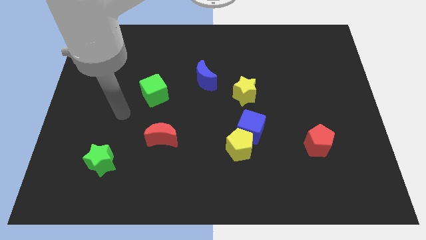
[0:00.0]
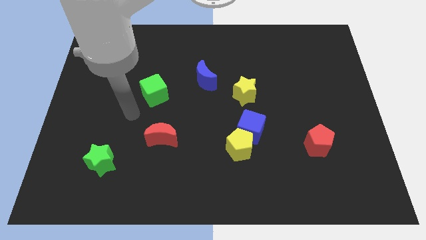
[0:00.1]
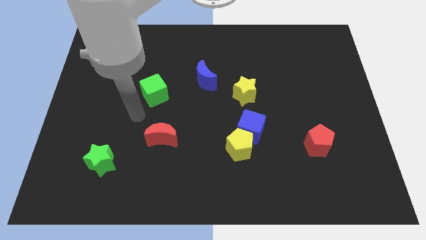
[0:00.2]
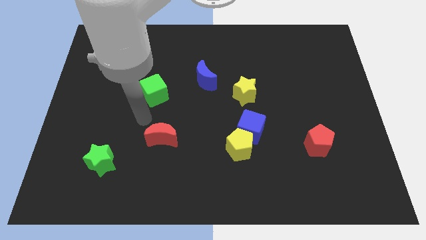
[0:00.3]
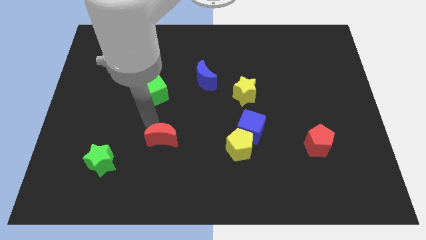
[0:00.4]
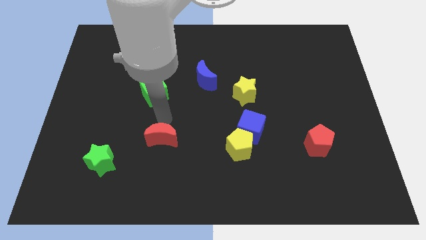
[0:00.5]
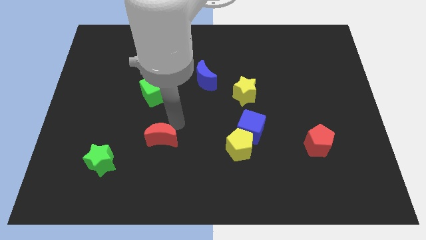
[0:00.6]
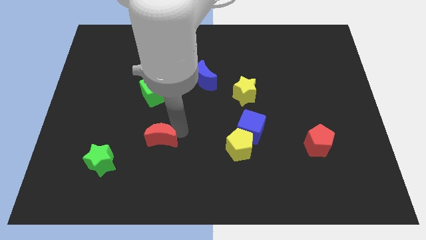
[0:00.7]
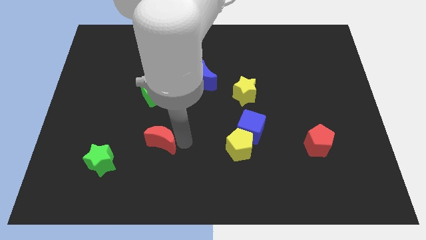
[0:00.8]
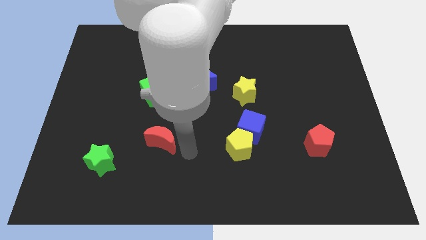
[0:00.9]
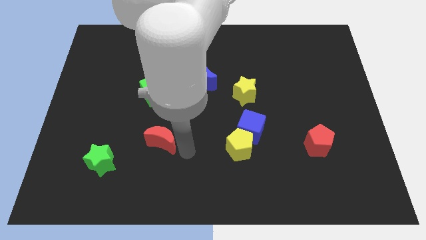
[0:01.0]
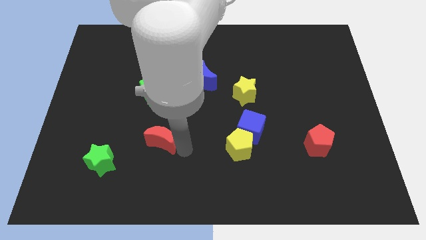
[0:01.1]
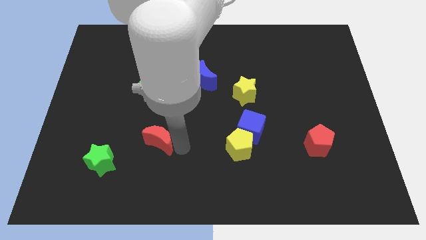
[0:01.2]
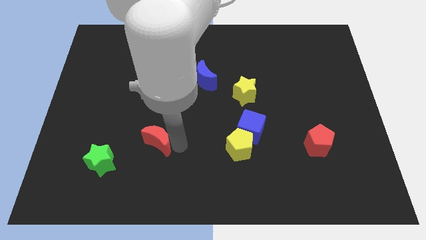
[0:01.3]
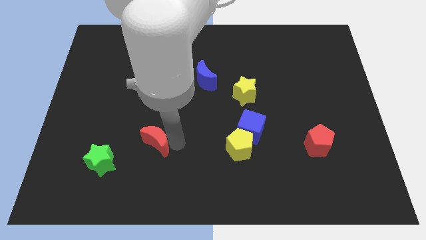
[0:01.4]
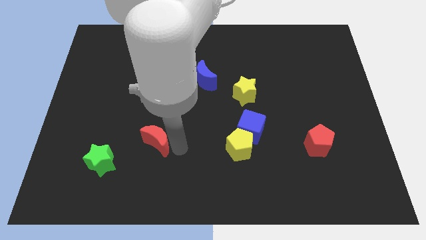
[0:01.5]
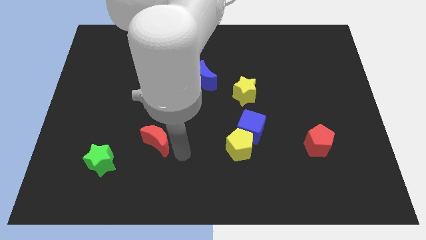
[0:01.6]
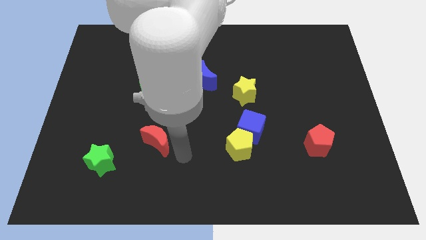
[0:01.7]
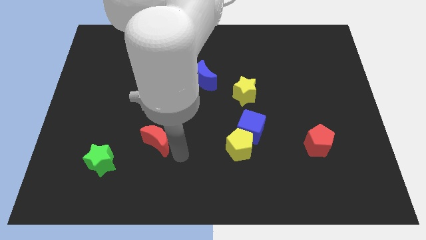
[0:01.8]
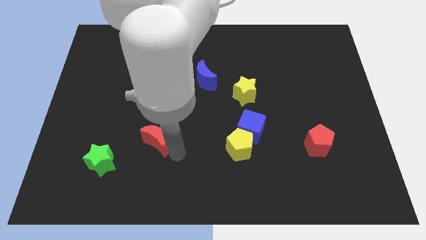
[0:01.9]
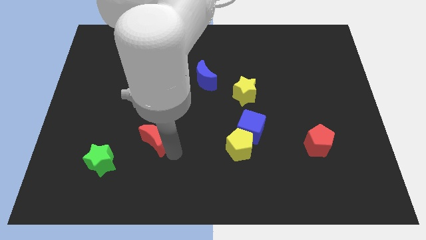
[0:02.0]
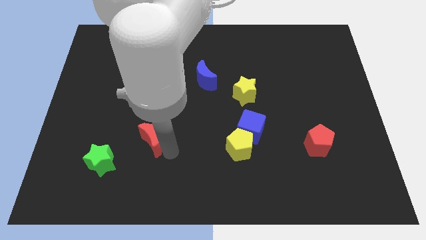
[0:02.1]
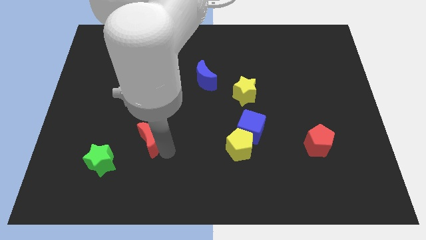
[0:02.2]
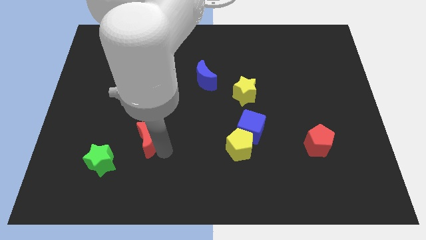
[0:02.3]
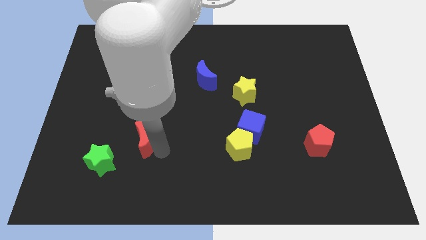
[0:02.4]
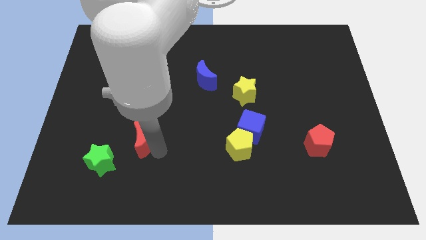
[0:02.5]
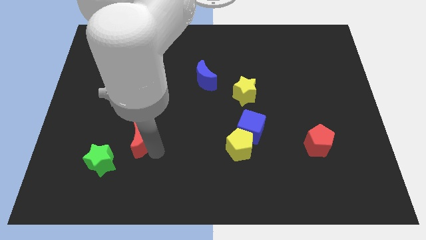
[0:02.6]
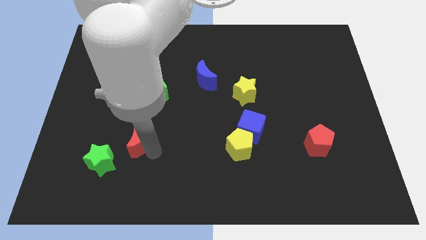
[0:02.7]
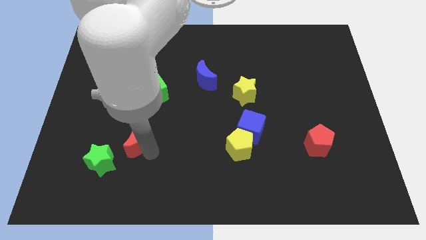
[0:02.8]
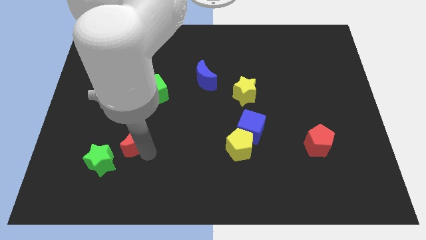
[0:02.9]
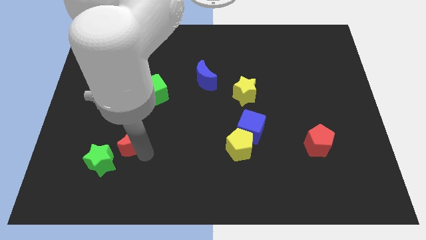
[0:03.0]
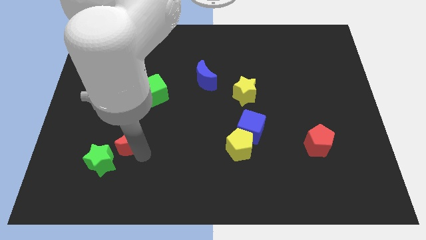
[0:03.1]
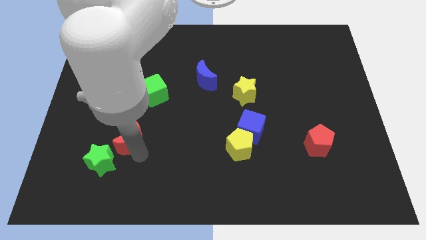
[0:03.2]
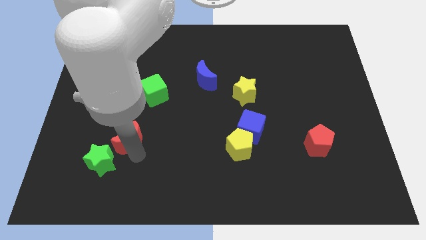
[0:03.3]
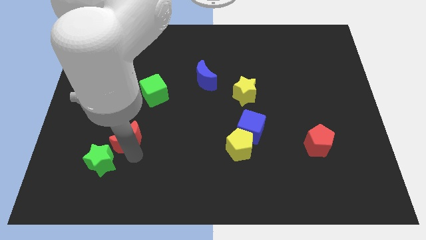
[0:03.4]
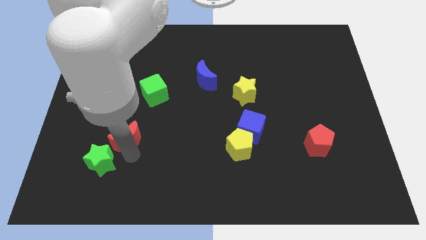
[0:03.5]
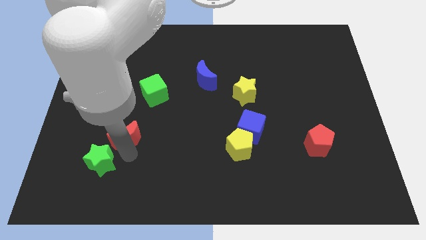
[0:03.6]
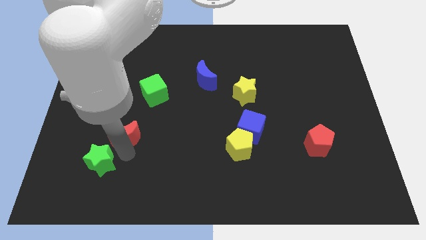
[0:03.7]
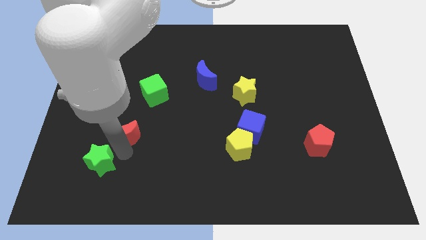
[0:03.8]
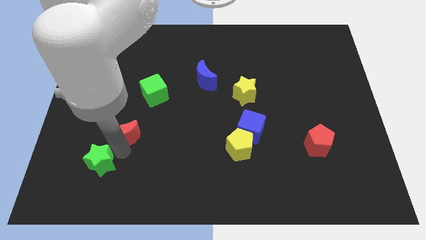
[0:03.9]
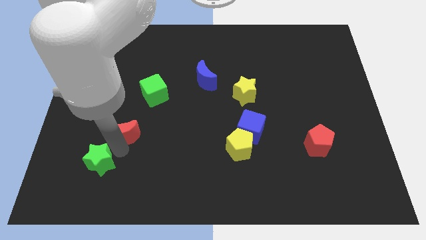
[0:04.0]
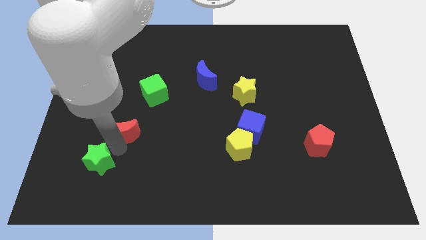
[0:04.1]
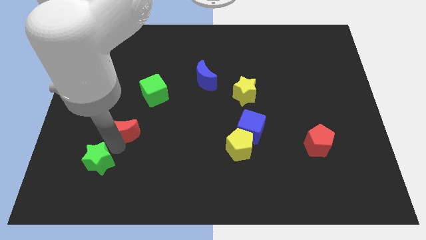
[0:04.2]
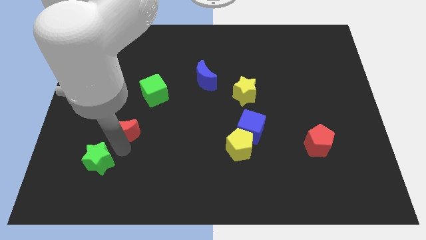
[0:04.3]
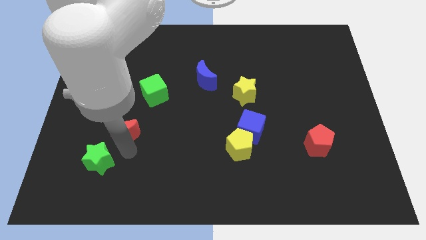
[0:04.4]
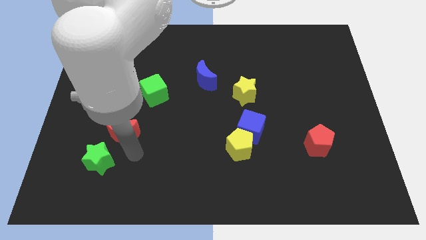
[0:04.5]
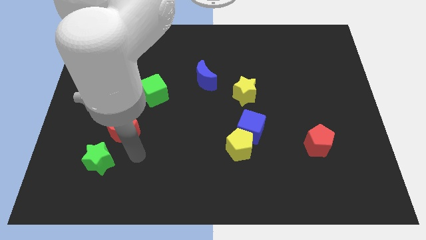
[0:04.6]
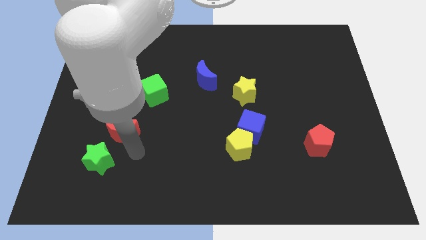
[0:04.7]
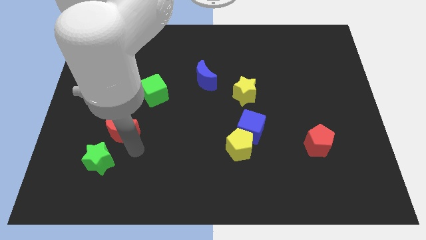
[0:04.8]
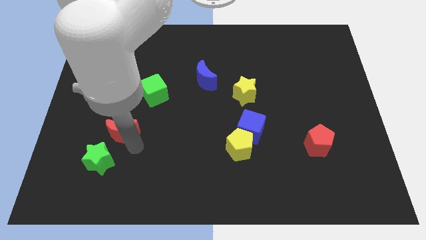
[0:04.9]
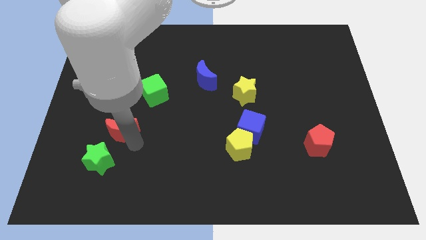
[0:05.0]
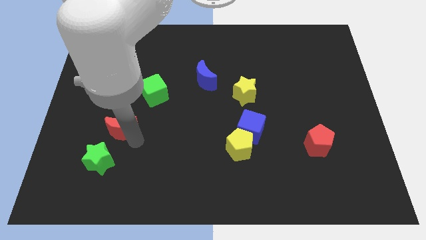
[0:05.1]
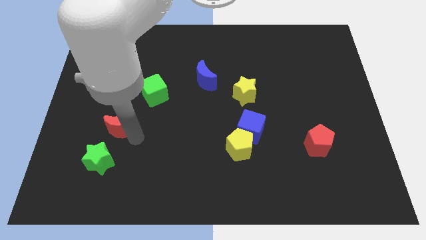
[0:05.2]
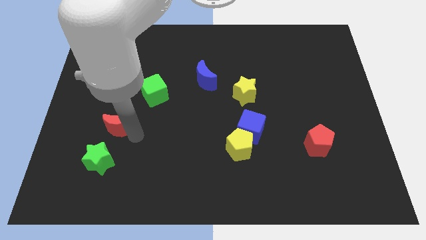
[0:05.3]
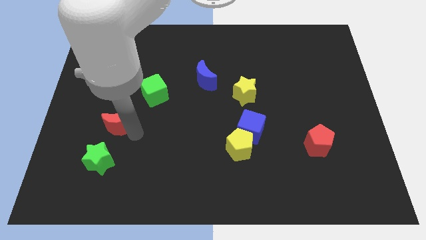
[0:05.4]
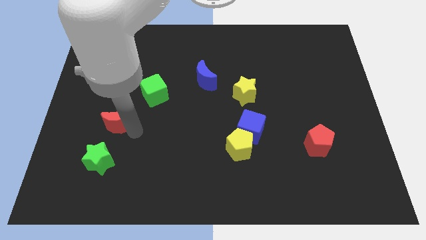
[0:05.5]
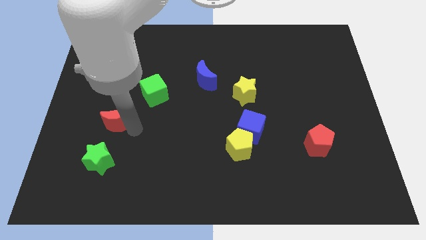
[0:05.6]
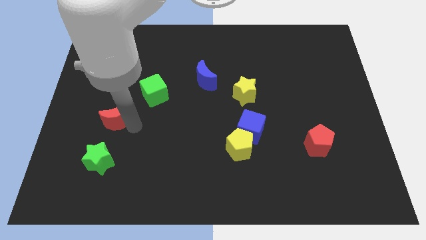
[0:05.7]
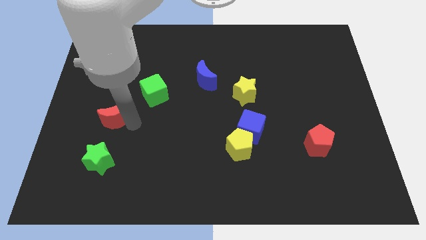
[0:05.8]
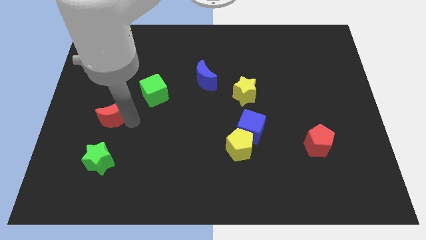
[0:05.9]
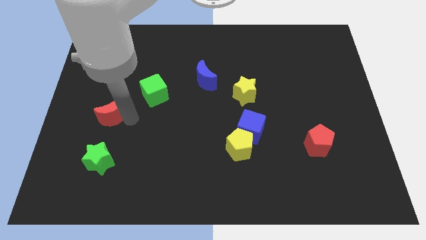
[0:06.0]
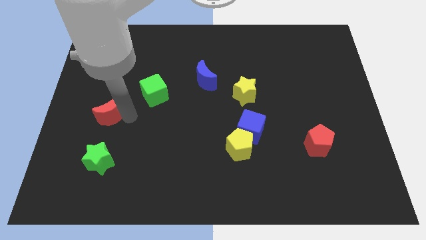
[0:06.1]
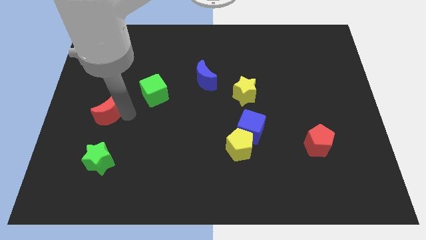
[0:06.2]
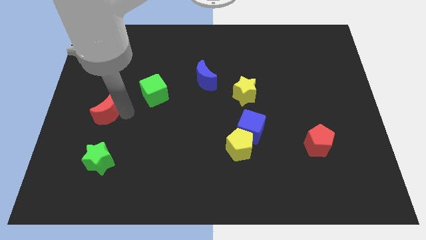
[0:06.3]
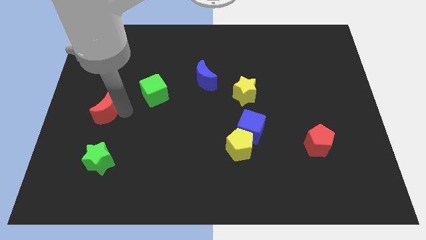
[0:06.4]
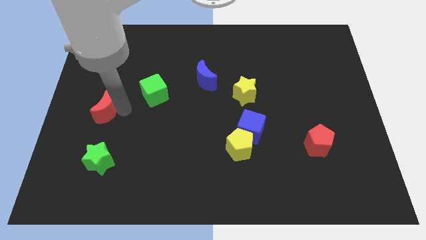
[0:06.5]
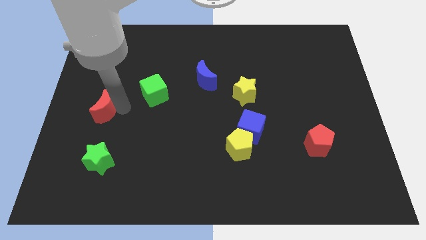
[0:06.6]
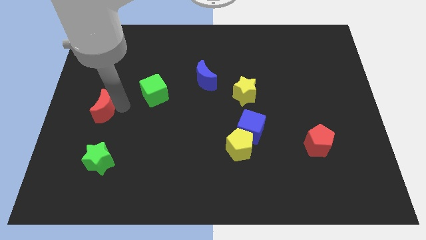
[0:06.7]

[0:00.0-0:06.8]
slide the red moon to the left side

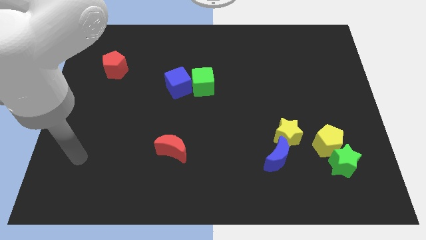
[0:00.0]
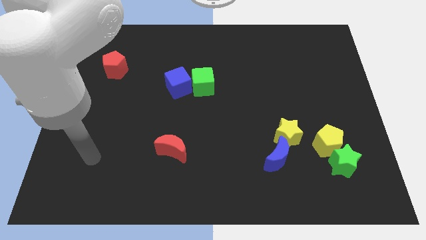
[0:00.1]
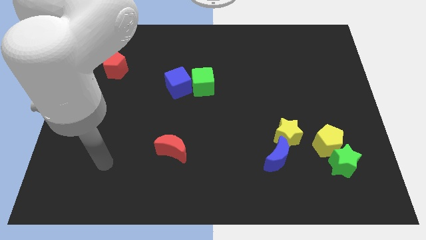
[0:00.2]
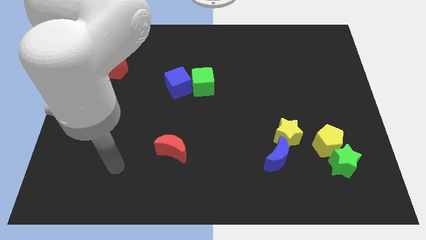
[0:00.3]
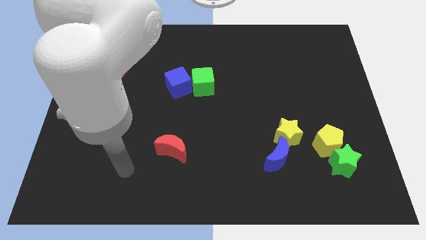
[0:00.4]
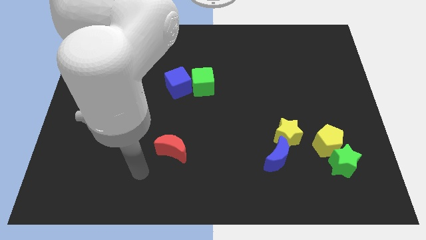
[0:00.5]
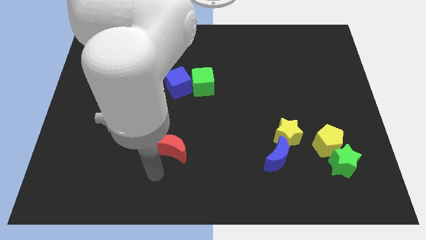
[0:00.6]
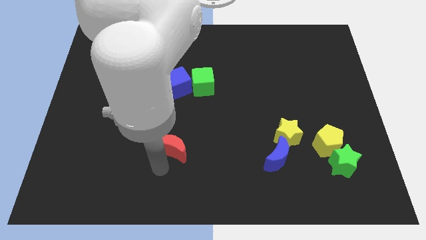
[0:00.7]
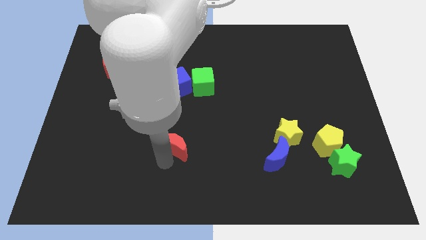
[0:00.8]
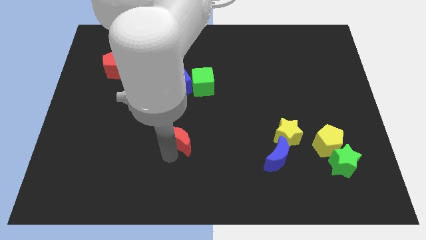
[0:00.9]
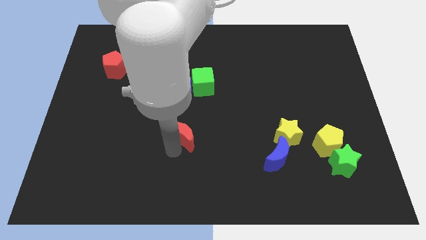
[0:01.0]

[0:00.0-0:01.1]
push the red moon to the middle of the board
